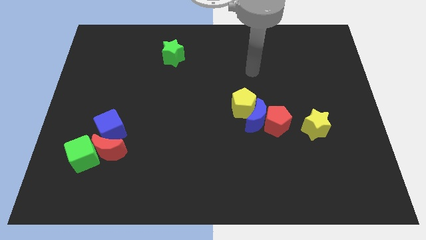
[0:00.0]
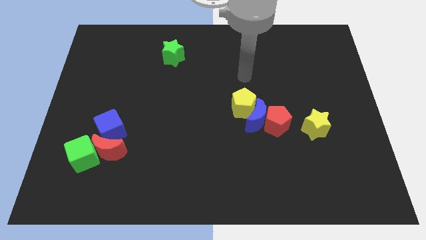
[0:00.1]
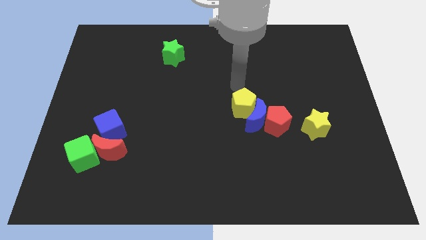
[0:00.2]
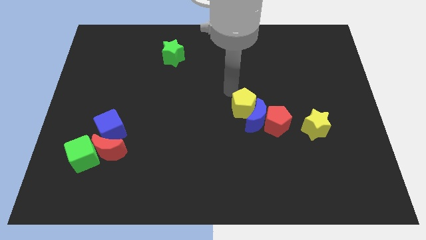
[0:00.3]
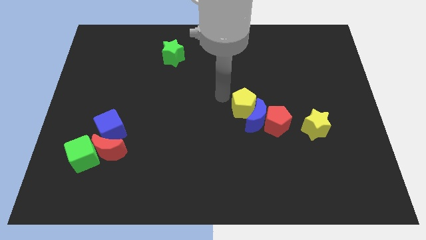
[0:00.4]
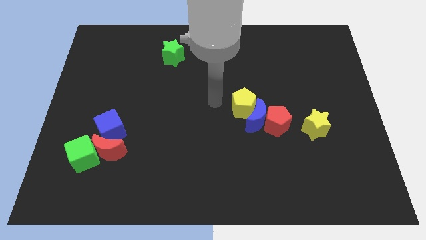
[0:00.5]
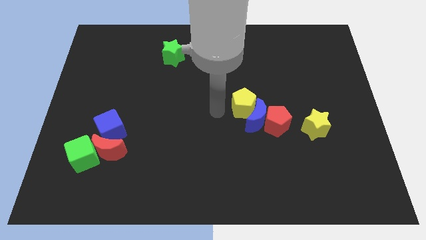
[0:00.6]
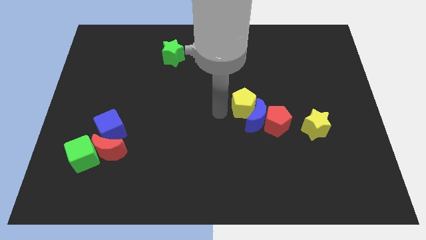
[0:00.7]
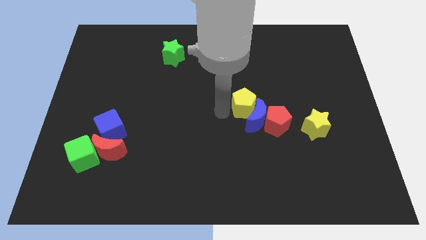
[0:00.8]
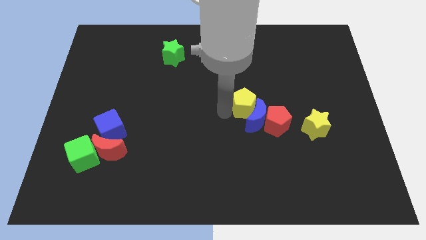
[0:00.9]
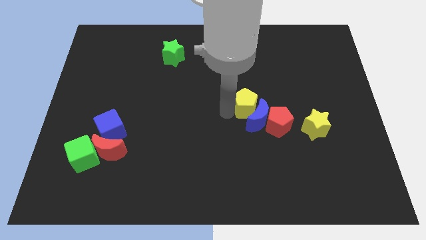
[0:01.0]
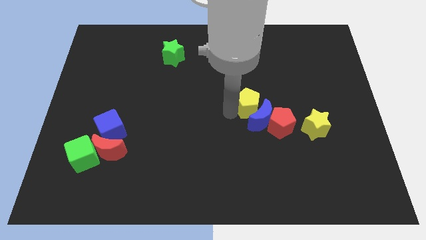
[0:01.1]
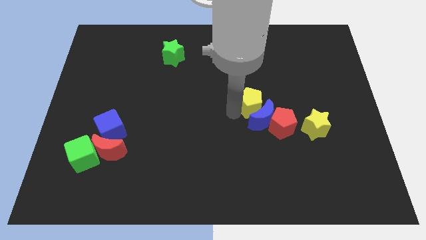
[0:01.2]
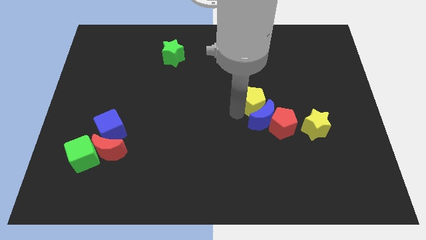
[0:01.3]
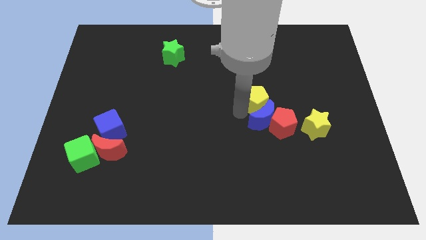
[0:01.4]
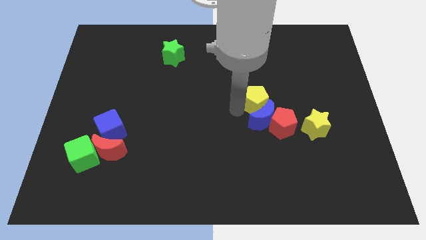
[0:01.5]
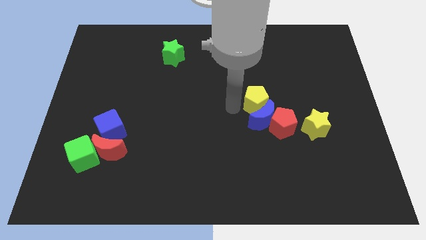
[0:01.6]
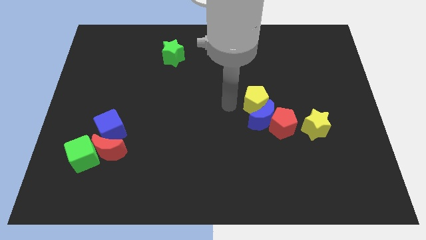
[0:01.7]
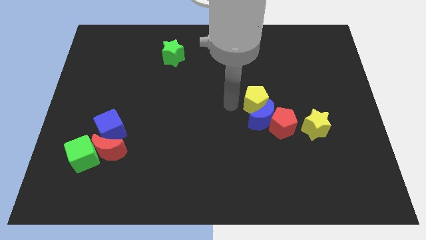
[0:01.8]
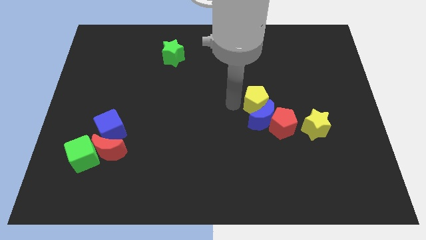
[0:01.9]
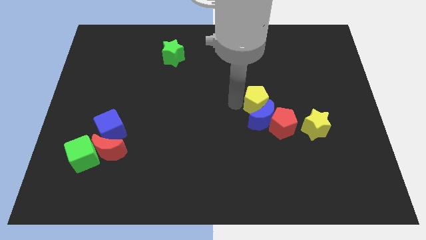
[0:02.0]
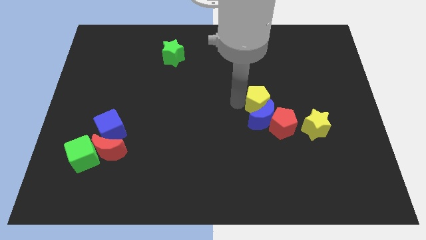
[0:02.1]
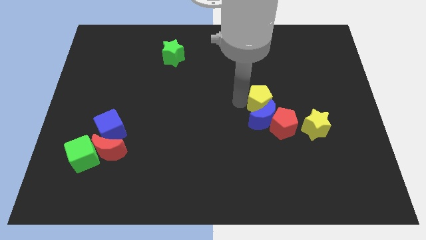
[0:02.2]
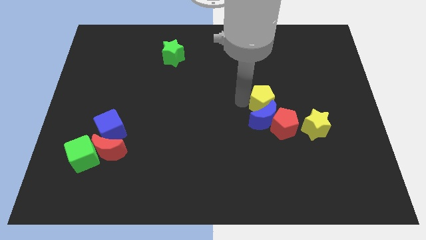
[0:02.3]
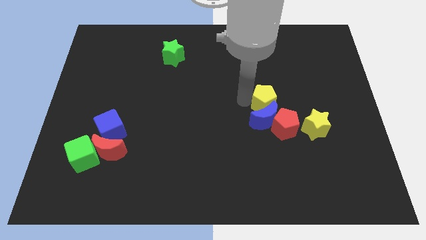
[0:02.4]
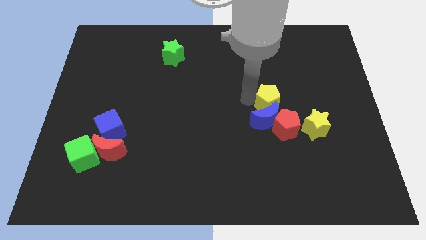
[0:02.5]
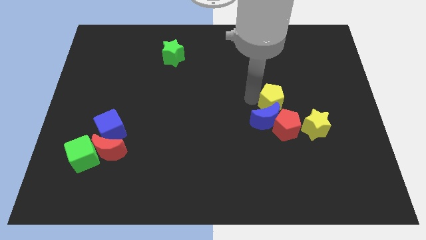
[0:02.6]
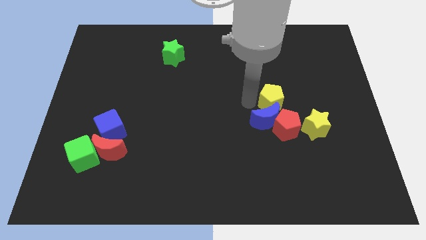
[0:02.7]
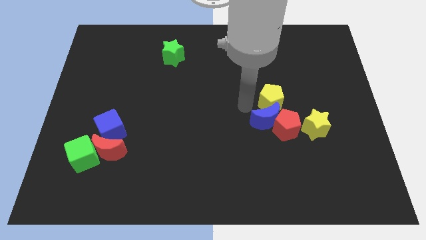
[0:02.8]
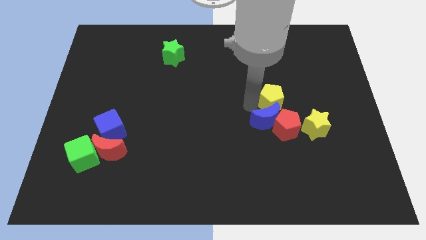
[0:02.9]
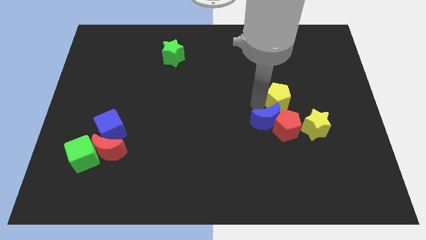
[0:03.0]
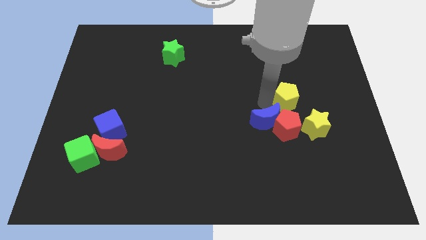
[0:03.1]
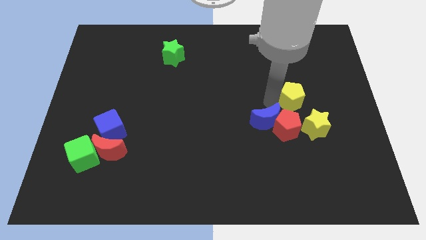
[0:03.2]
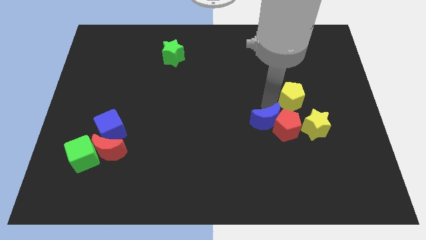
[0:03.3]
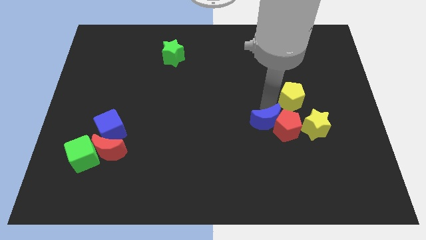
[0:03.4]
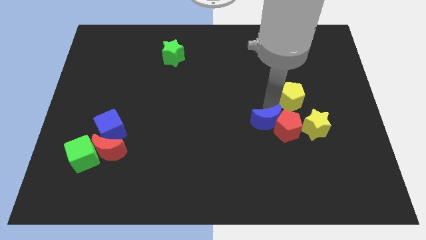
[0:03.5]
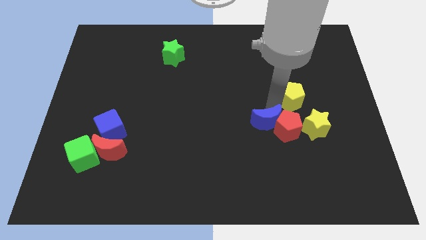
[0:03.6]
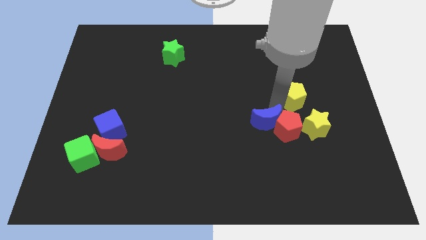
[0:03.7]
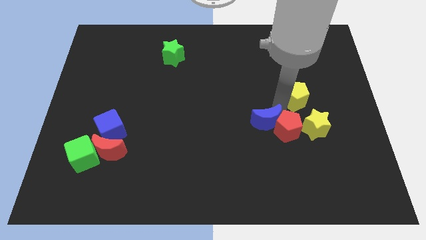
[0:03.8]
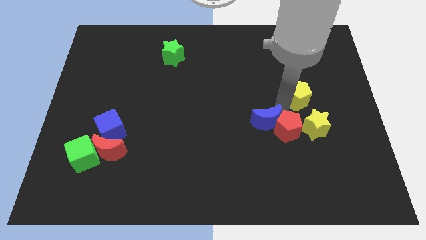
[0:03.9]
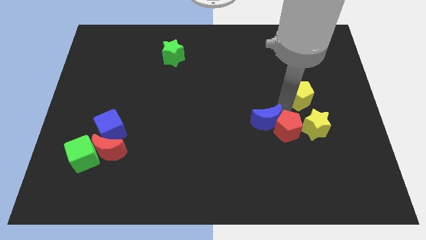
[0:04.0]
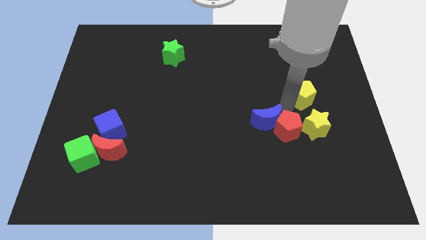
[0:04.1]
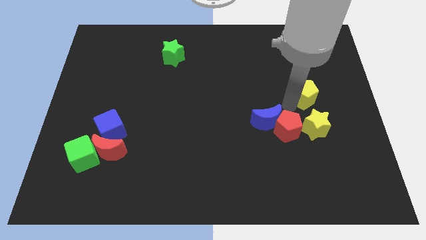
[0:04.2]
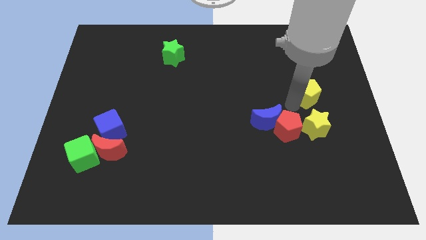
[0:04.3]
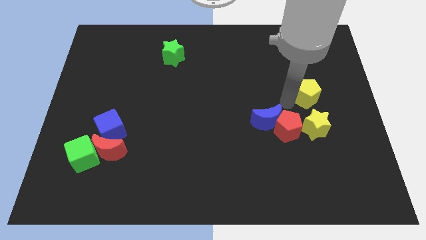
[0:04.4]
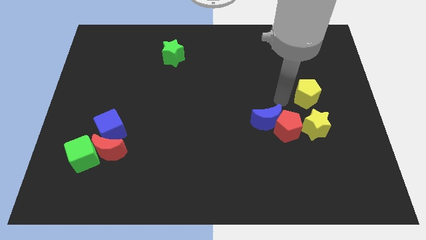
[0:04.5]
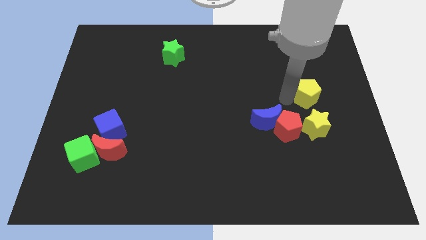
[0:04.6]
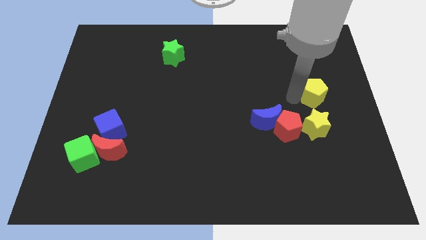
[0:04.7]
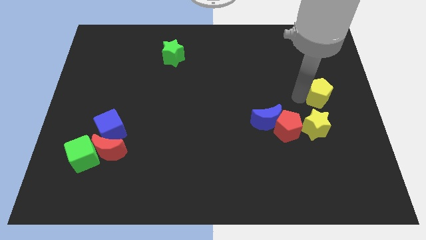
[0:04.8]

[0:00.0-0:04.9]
put the yellow pentagon to the center right

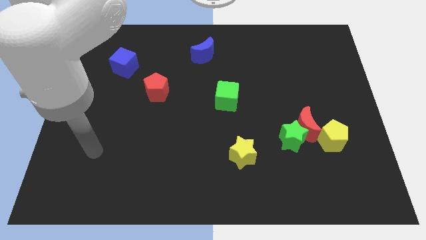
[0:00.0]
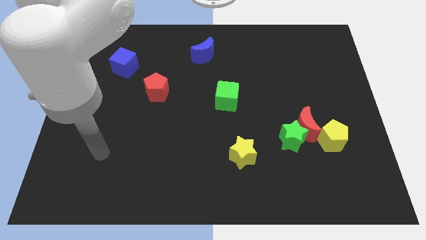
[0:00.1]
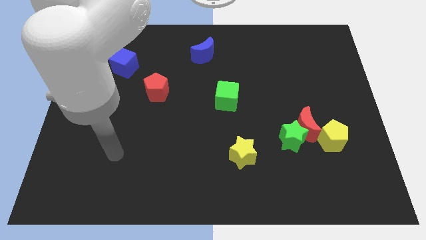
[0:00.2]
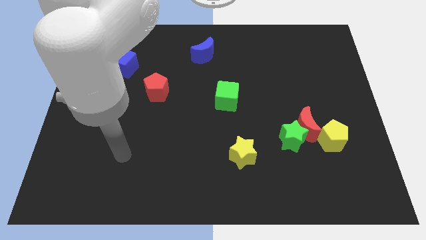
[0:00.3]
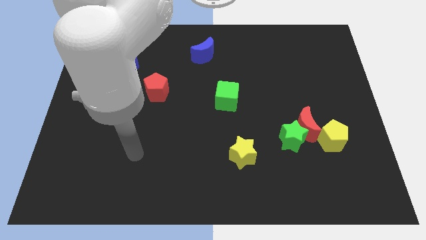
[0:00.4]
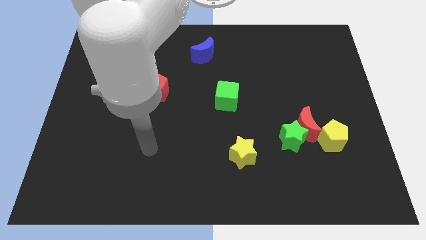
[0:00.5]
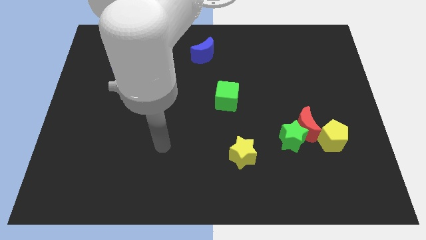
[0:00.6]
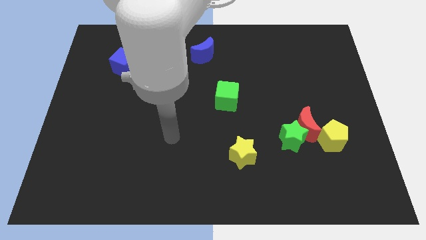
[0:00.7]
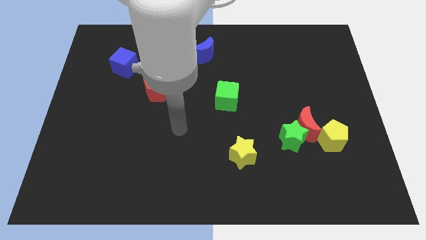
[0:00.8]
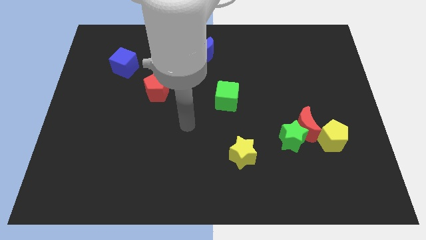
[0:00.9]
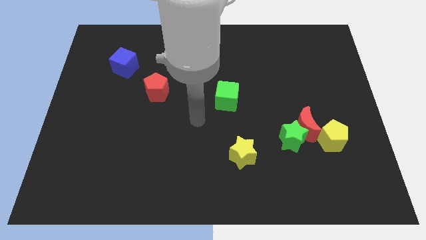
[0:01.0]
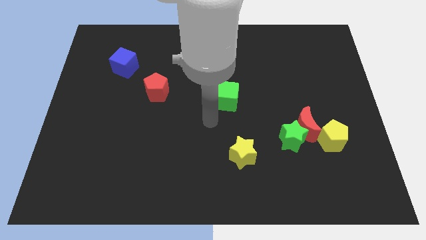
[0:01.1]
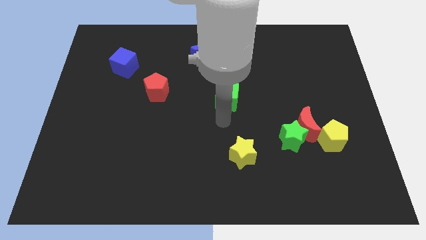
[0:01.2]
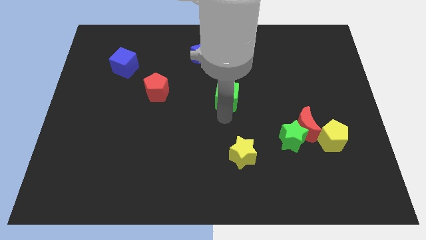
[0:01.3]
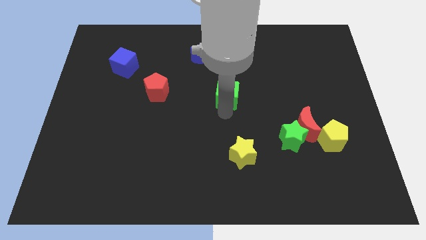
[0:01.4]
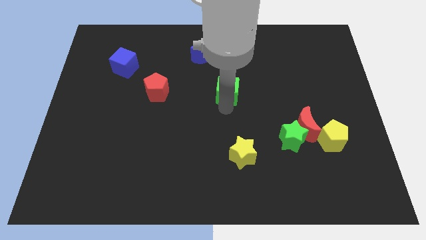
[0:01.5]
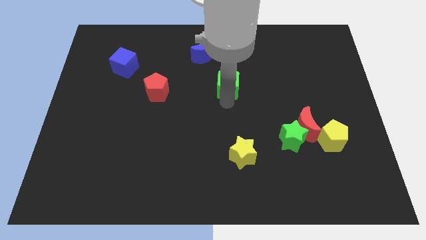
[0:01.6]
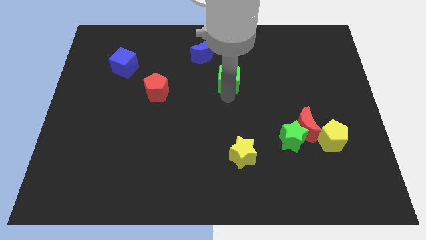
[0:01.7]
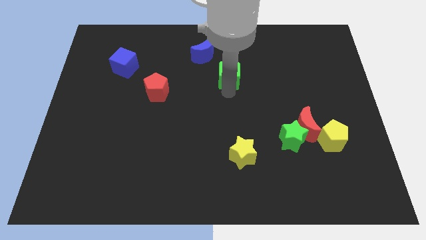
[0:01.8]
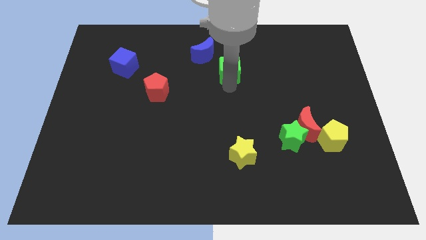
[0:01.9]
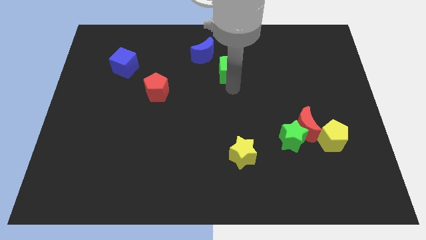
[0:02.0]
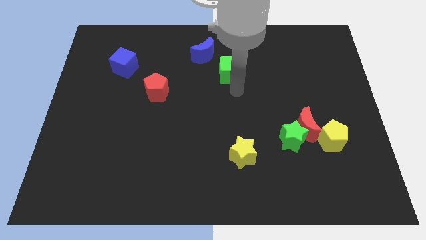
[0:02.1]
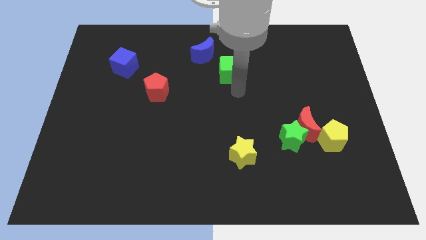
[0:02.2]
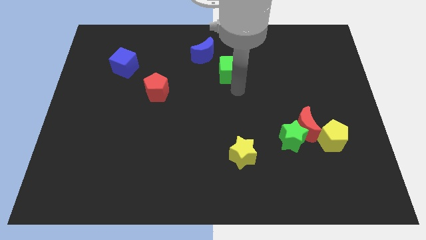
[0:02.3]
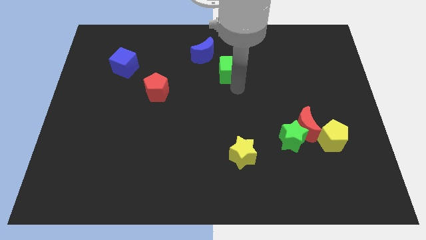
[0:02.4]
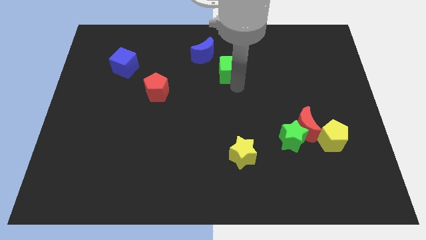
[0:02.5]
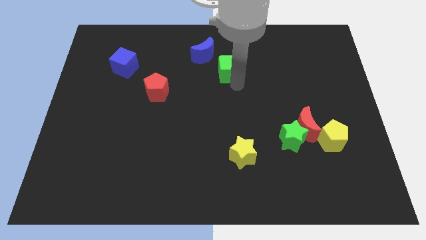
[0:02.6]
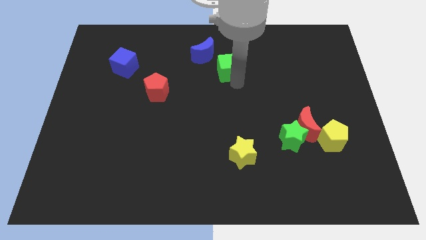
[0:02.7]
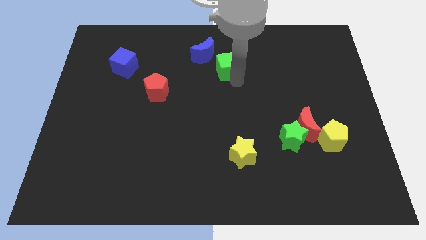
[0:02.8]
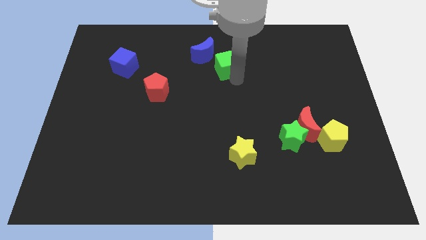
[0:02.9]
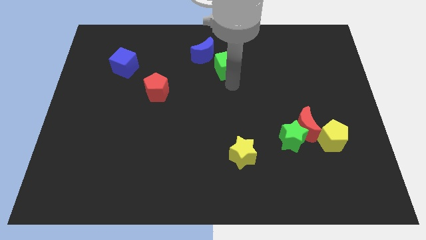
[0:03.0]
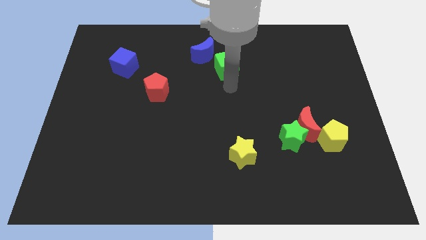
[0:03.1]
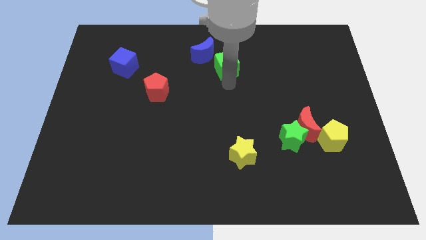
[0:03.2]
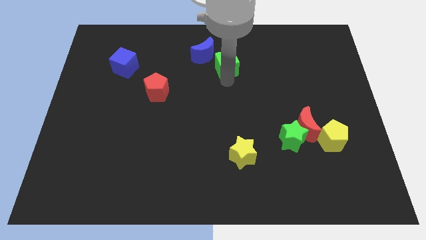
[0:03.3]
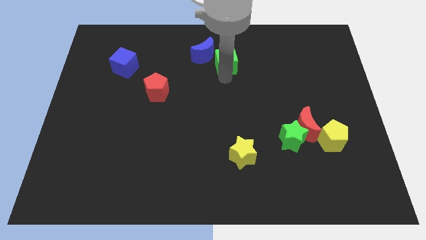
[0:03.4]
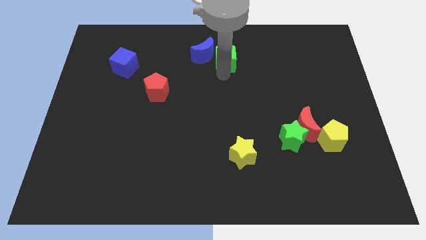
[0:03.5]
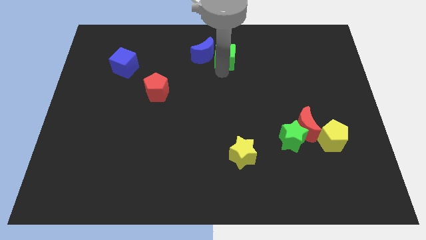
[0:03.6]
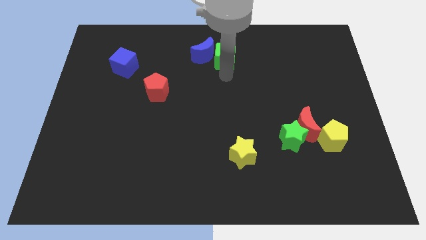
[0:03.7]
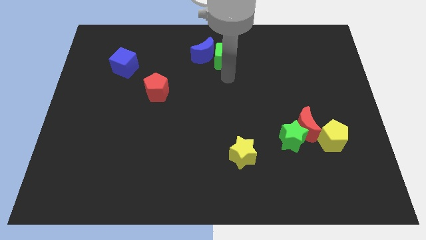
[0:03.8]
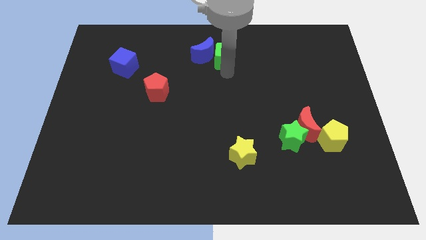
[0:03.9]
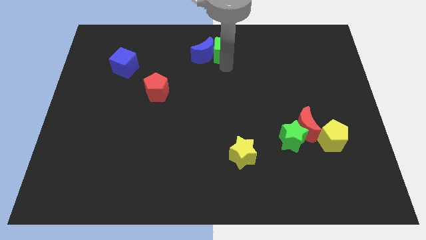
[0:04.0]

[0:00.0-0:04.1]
put the green cube to the top
